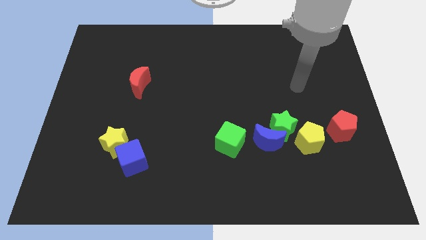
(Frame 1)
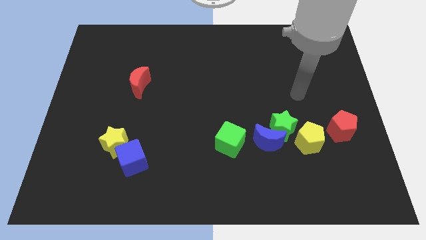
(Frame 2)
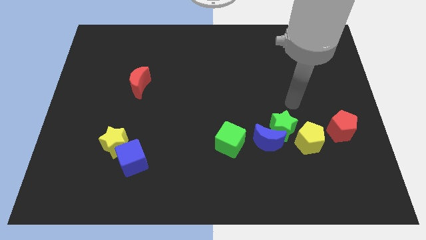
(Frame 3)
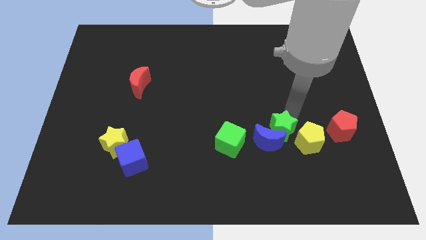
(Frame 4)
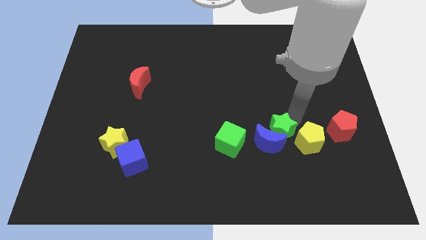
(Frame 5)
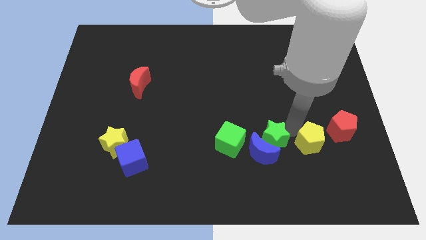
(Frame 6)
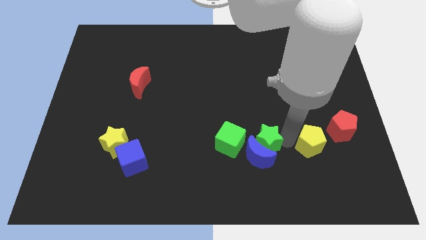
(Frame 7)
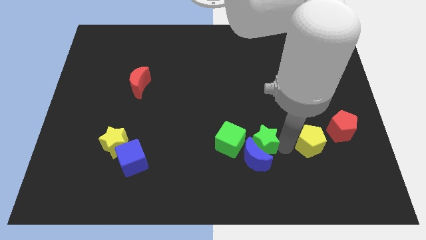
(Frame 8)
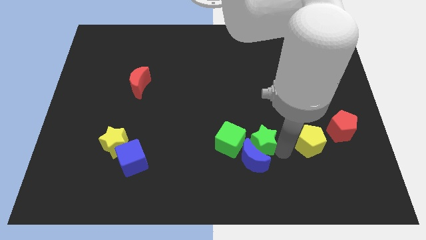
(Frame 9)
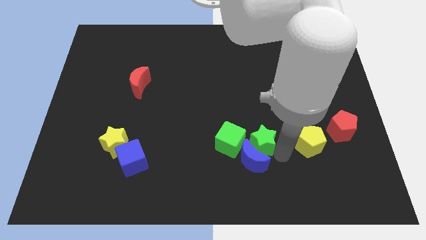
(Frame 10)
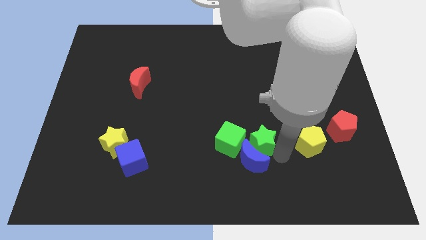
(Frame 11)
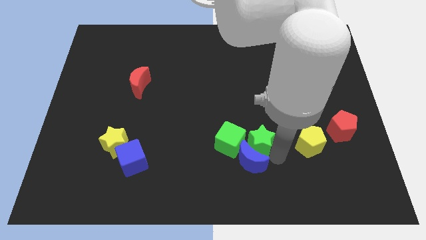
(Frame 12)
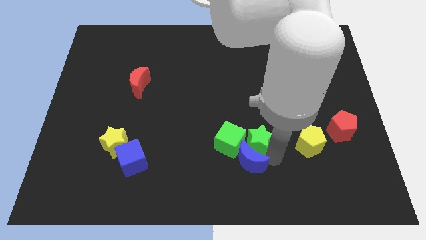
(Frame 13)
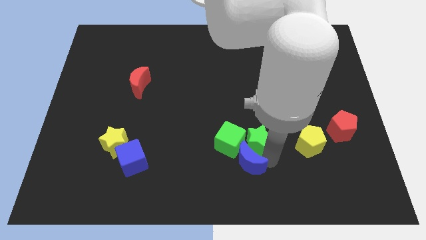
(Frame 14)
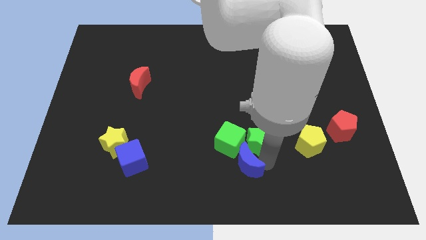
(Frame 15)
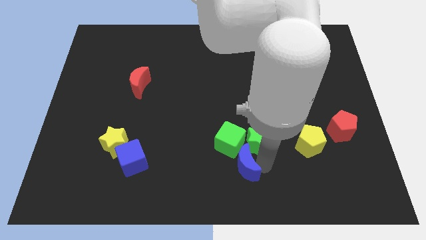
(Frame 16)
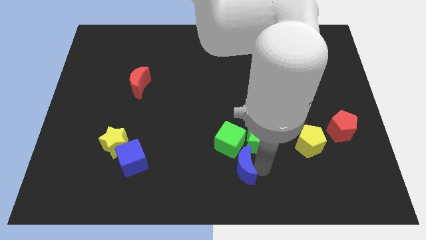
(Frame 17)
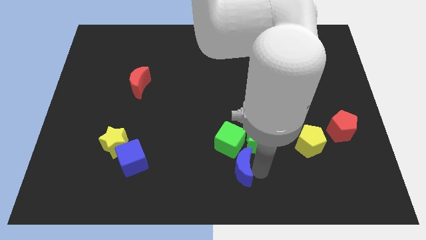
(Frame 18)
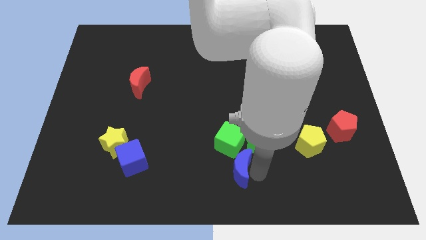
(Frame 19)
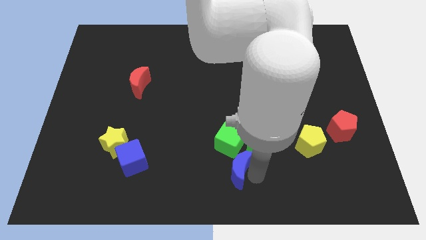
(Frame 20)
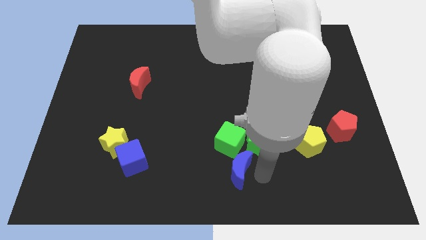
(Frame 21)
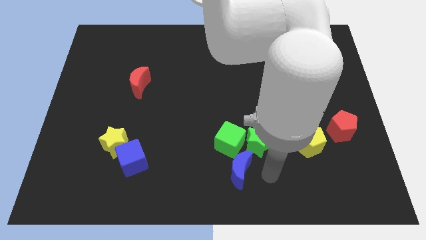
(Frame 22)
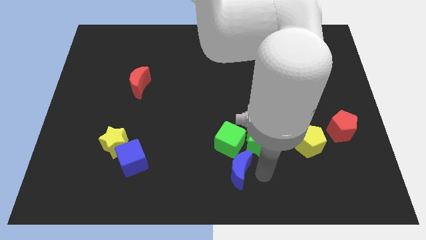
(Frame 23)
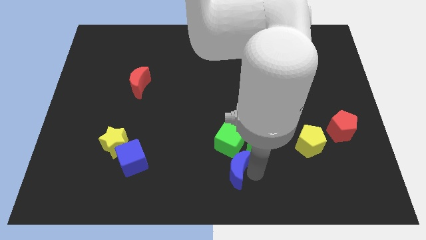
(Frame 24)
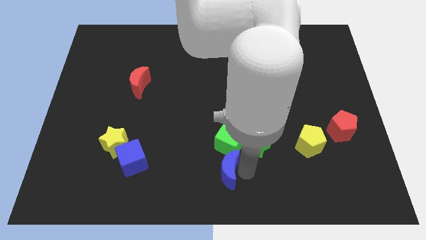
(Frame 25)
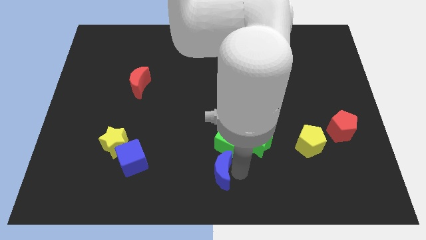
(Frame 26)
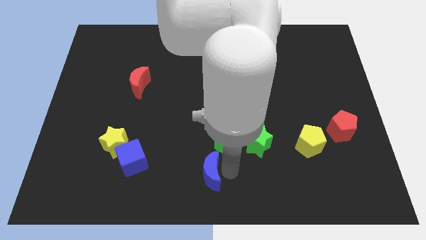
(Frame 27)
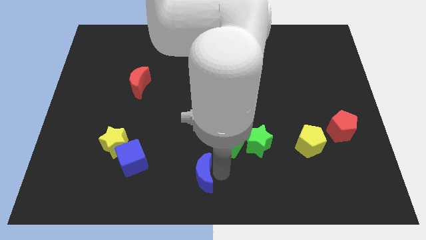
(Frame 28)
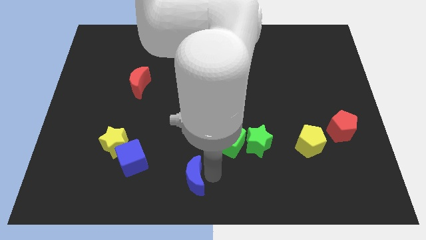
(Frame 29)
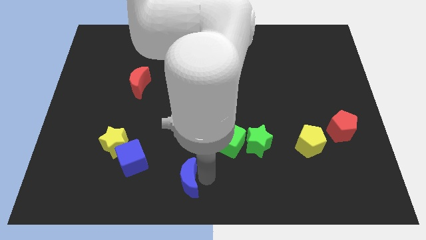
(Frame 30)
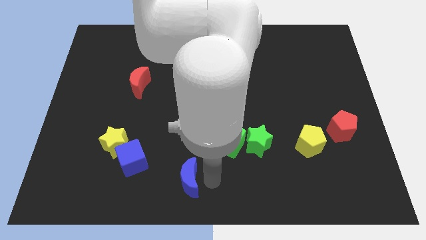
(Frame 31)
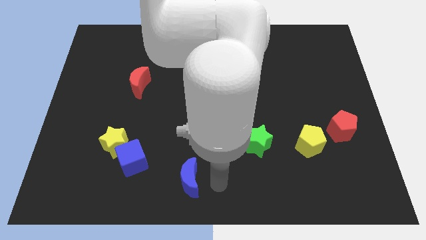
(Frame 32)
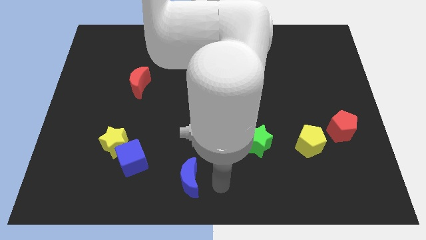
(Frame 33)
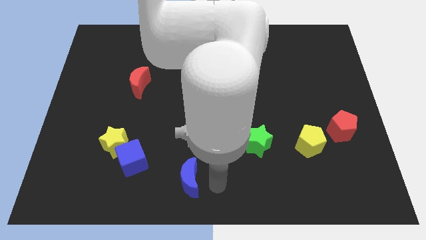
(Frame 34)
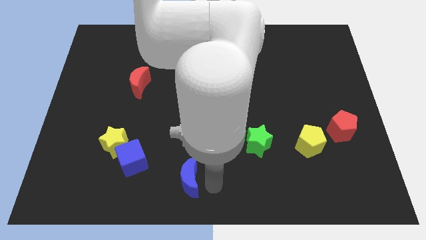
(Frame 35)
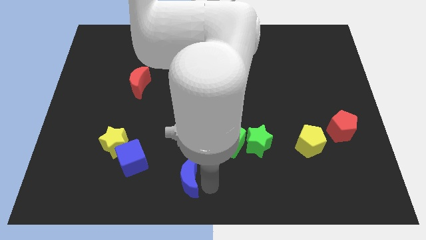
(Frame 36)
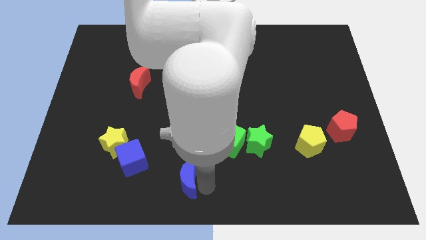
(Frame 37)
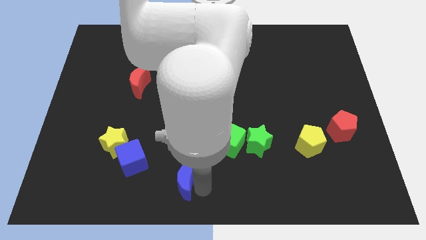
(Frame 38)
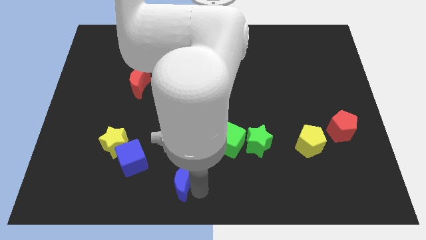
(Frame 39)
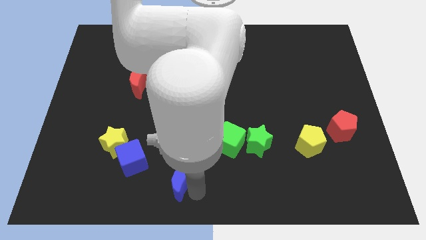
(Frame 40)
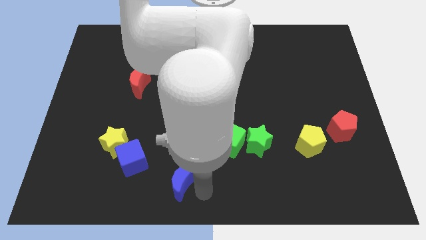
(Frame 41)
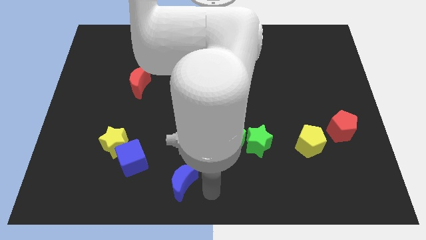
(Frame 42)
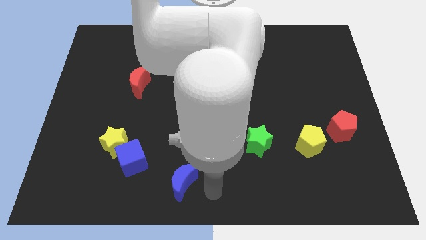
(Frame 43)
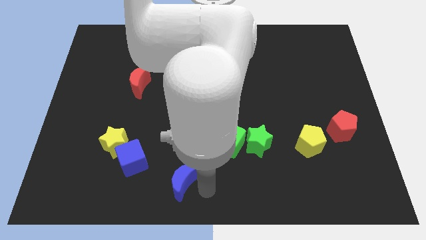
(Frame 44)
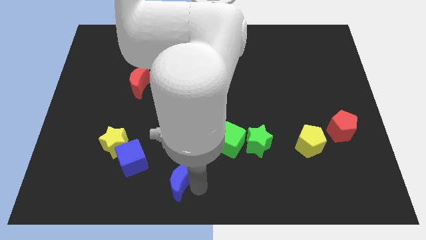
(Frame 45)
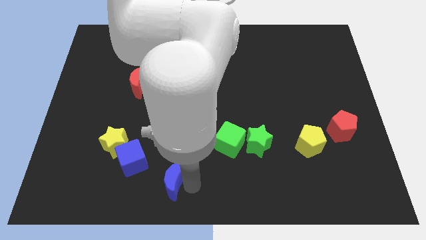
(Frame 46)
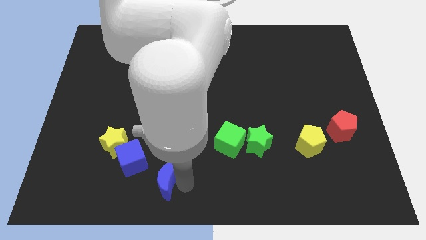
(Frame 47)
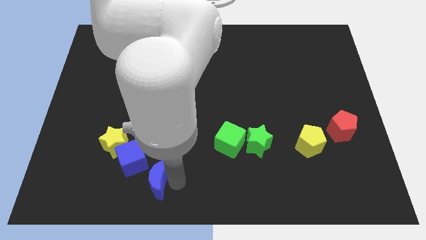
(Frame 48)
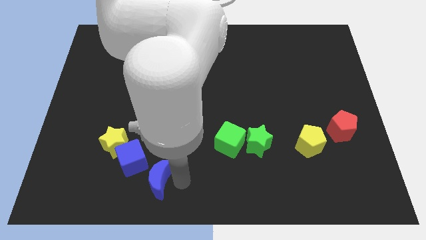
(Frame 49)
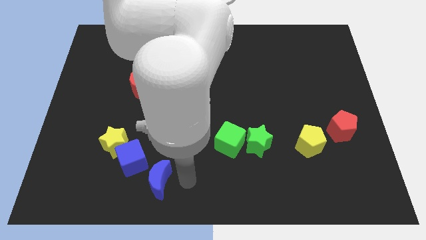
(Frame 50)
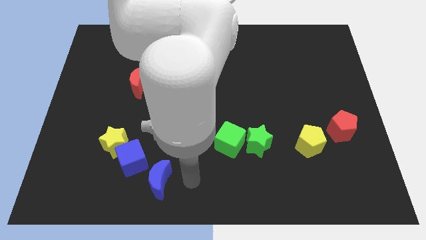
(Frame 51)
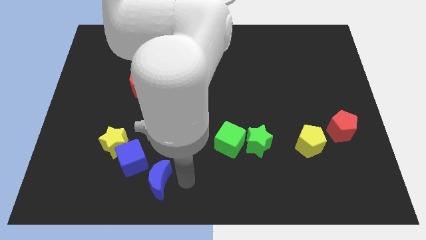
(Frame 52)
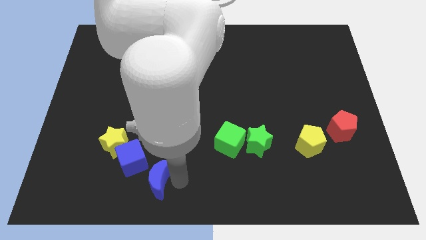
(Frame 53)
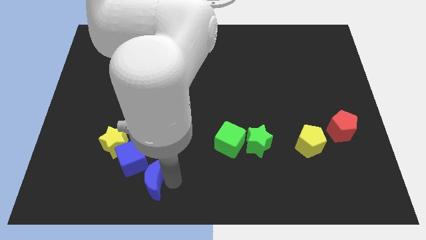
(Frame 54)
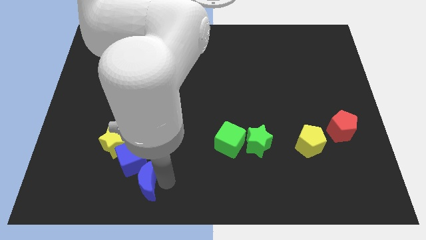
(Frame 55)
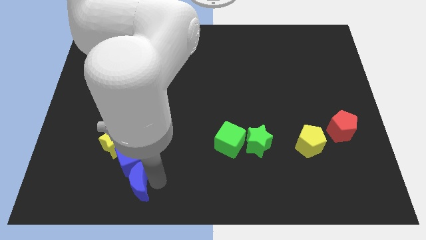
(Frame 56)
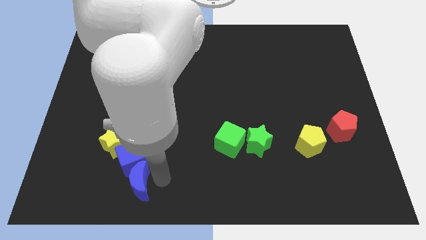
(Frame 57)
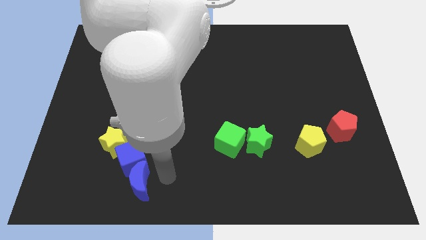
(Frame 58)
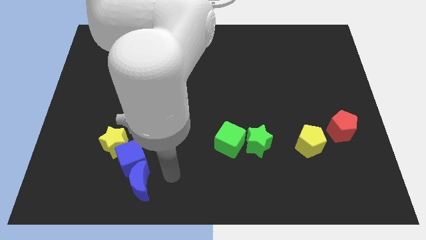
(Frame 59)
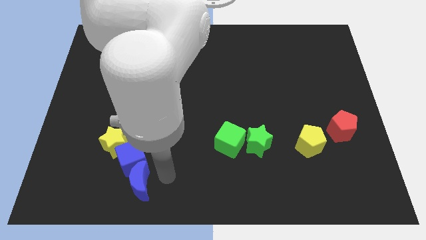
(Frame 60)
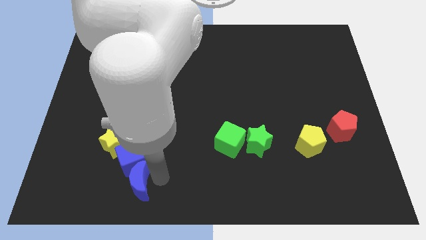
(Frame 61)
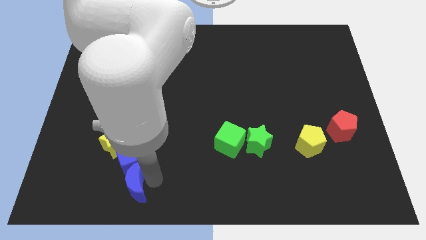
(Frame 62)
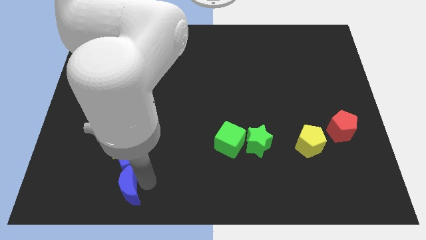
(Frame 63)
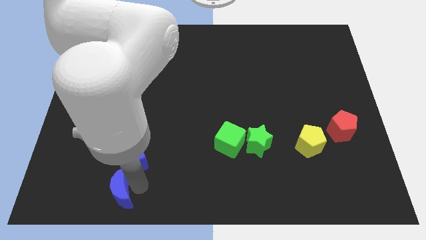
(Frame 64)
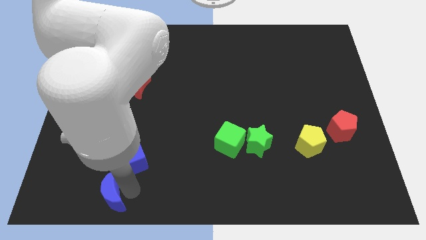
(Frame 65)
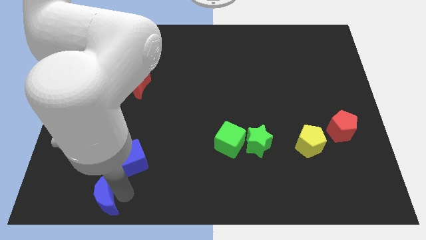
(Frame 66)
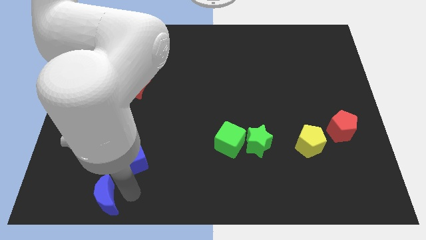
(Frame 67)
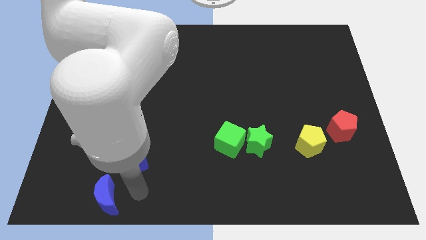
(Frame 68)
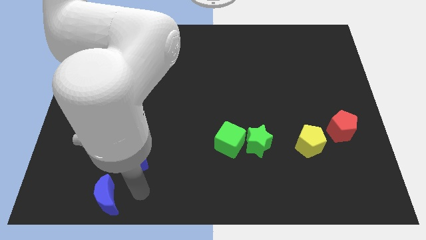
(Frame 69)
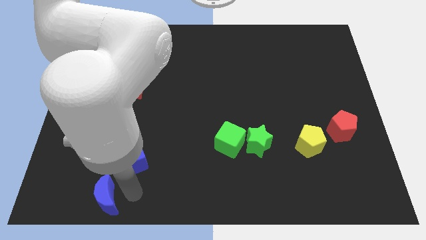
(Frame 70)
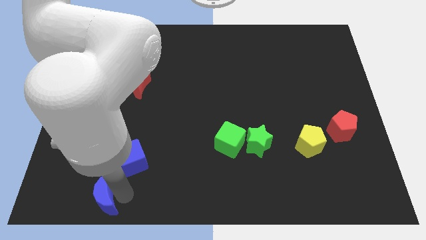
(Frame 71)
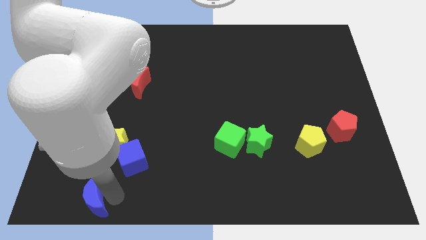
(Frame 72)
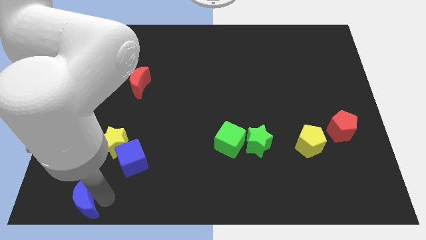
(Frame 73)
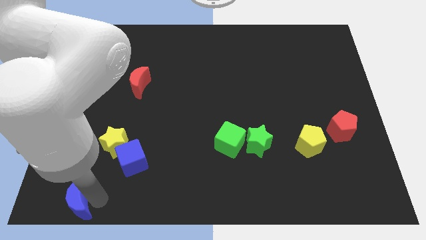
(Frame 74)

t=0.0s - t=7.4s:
put the blue moon to the lower left corner
